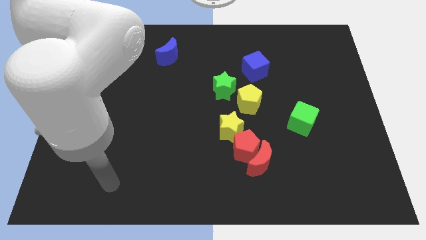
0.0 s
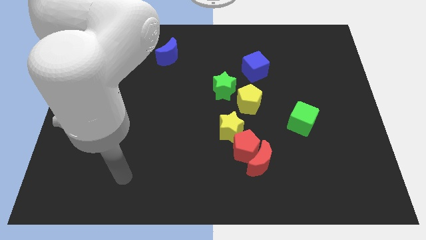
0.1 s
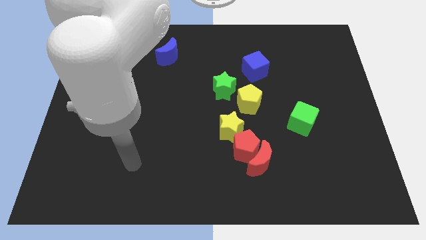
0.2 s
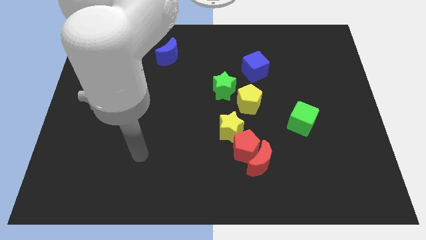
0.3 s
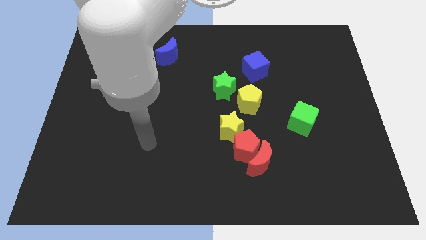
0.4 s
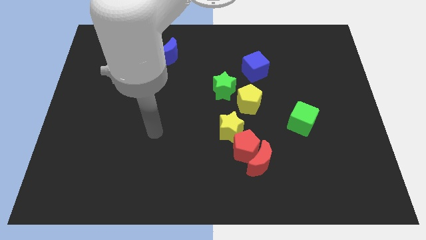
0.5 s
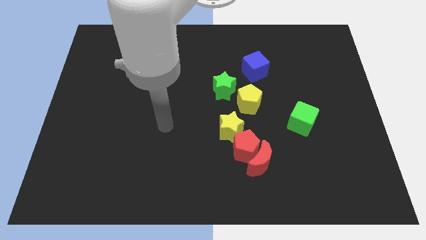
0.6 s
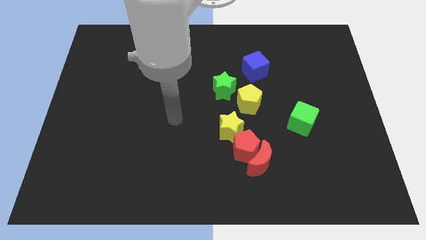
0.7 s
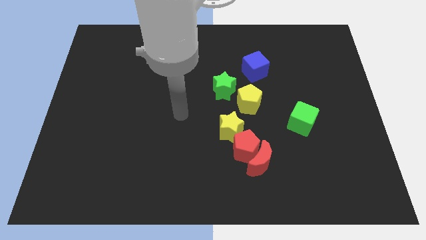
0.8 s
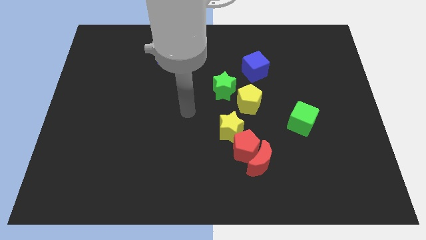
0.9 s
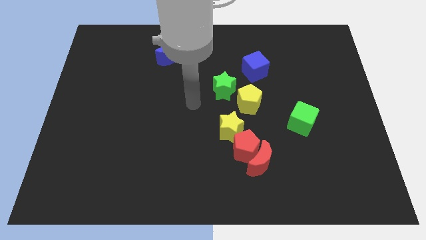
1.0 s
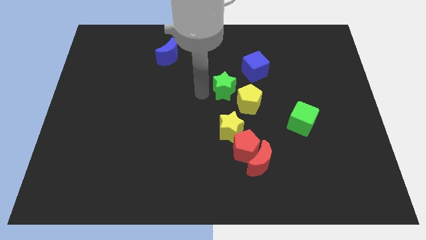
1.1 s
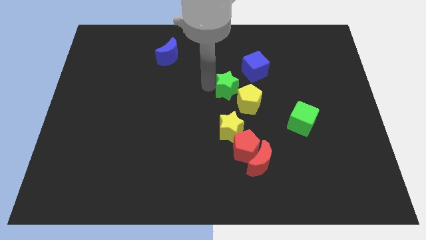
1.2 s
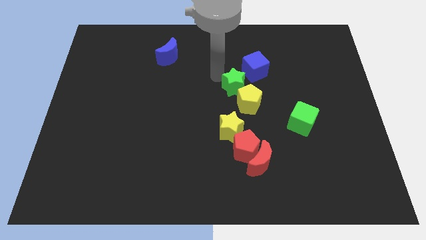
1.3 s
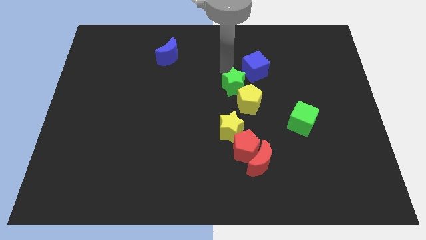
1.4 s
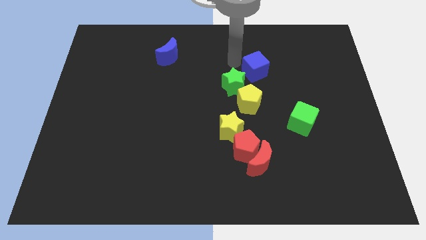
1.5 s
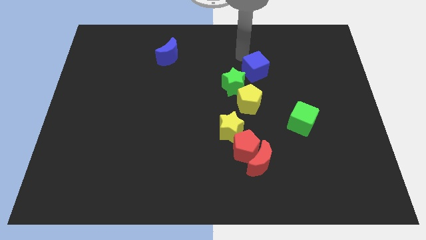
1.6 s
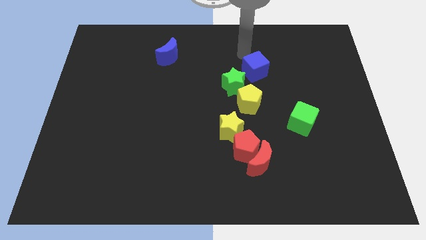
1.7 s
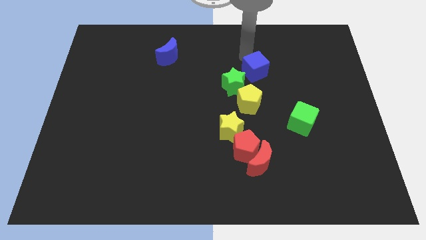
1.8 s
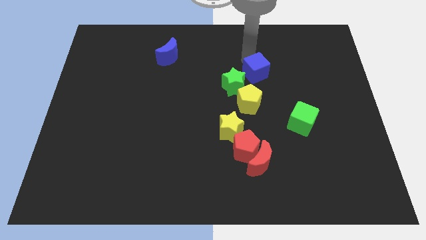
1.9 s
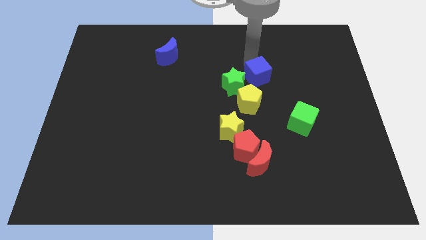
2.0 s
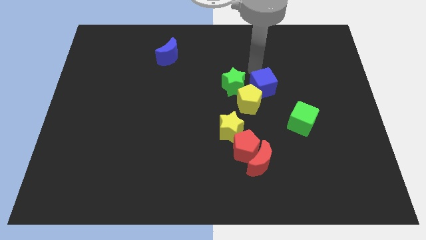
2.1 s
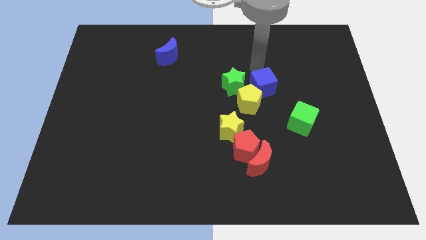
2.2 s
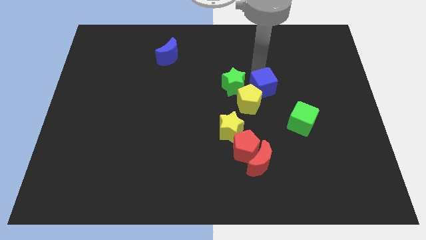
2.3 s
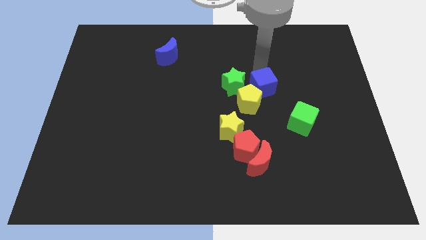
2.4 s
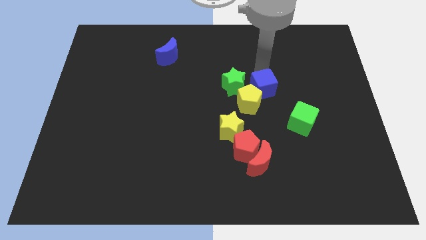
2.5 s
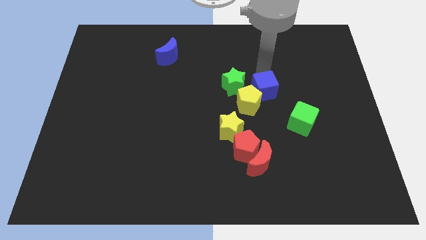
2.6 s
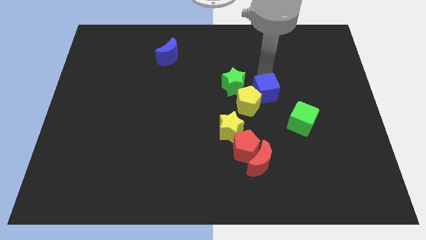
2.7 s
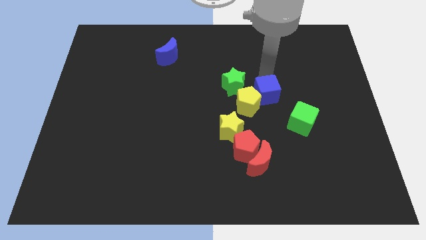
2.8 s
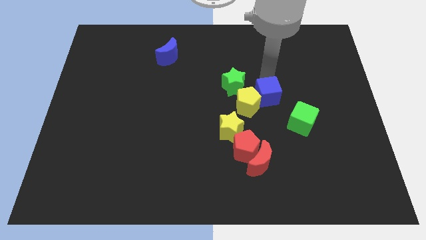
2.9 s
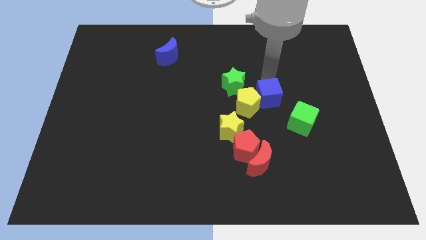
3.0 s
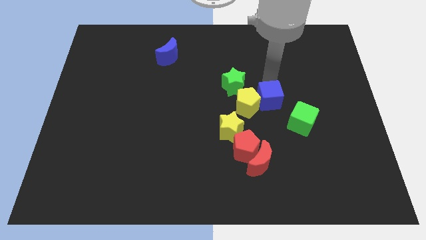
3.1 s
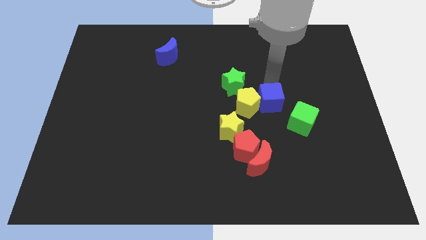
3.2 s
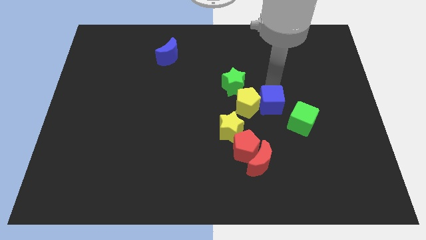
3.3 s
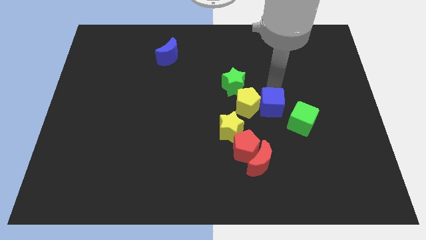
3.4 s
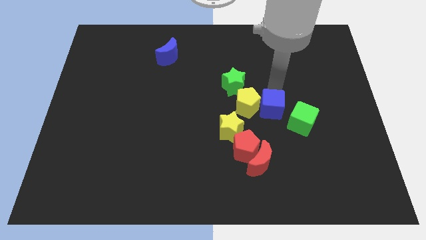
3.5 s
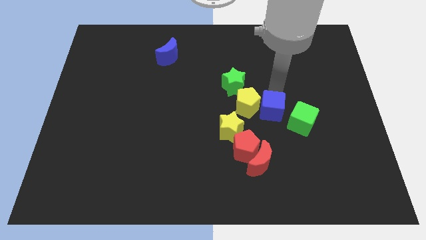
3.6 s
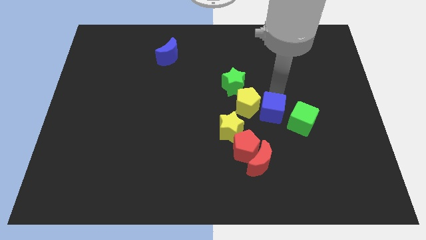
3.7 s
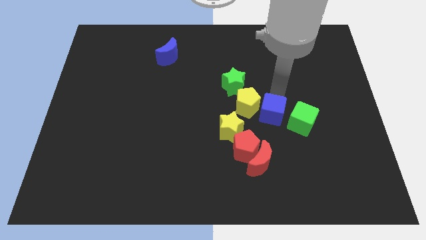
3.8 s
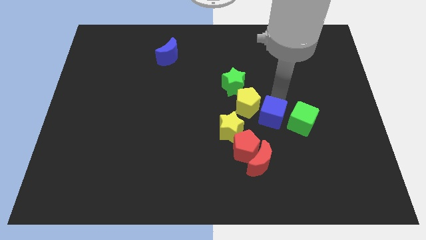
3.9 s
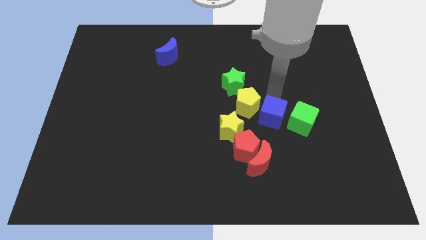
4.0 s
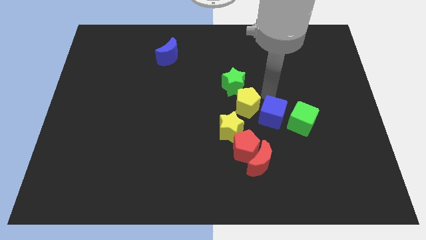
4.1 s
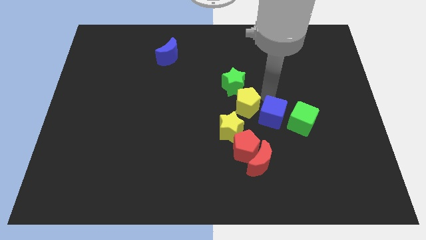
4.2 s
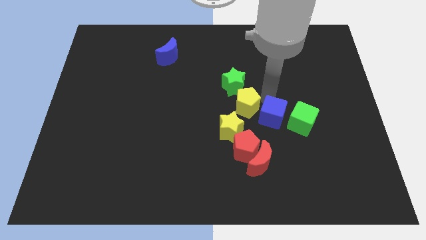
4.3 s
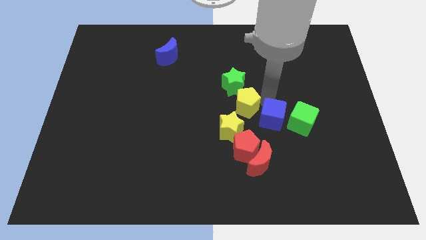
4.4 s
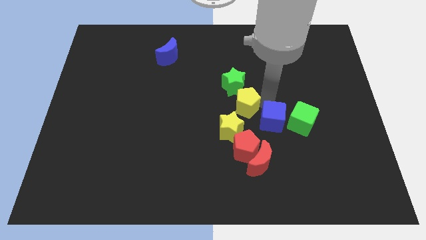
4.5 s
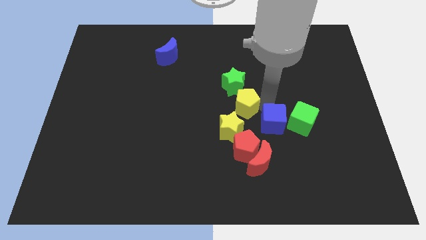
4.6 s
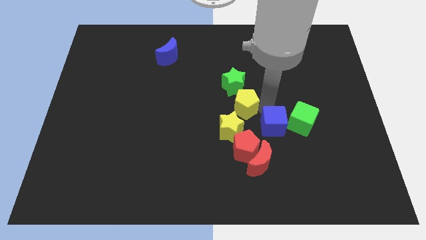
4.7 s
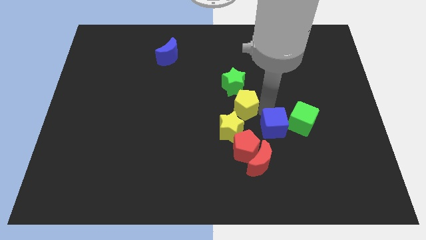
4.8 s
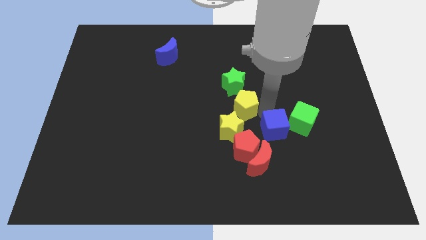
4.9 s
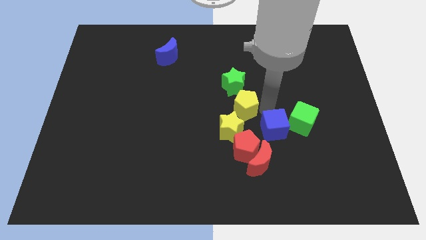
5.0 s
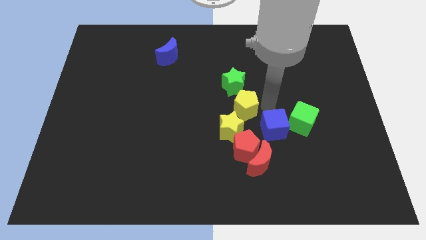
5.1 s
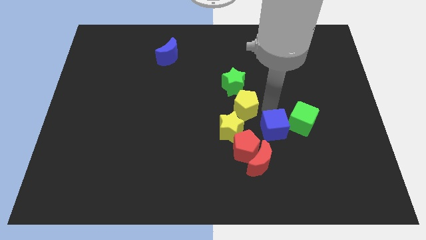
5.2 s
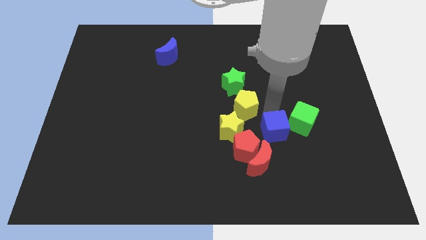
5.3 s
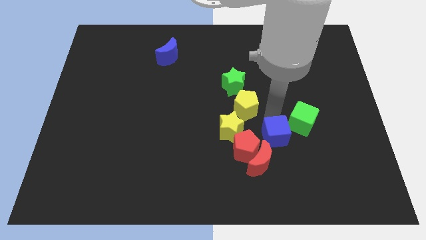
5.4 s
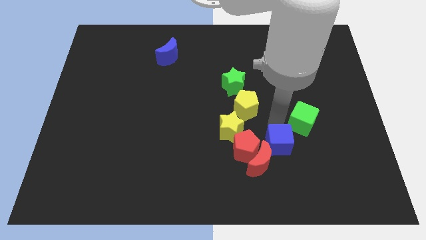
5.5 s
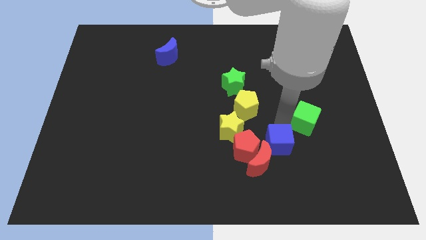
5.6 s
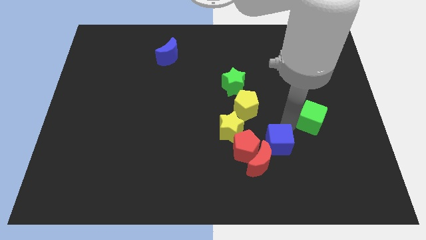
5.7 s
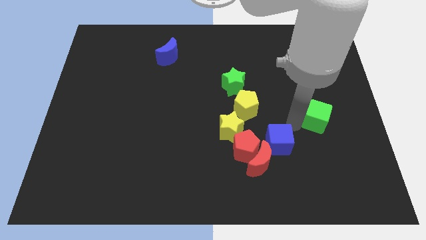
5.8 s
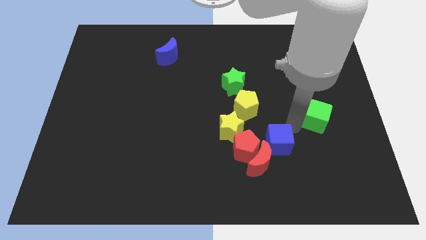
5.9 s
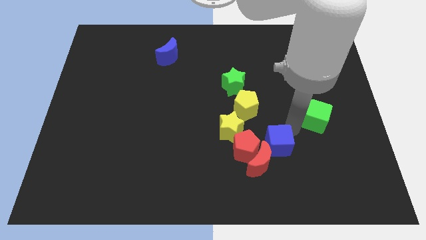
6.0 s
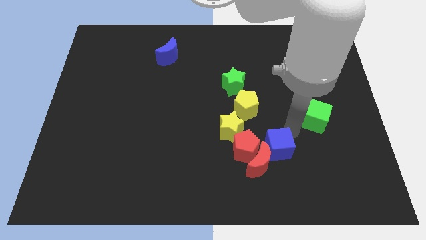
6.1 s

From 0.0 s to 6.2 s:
push the blue cube close to the red moon

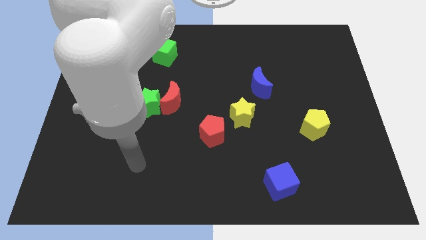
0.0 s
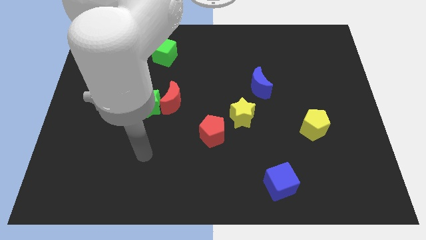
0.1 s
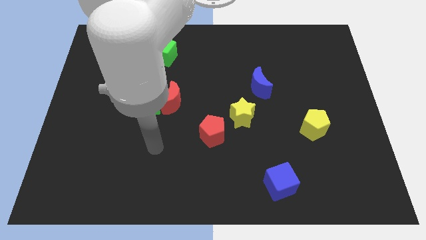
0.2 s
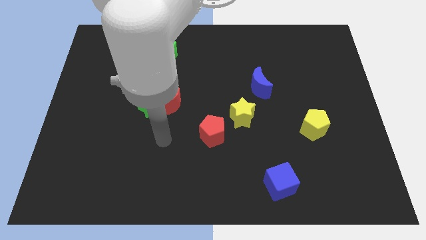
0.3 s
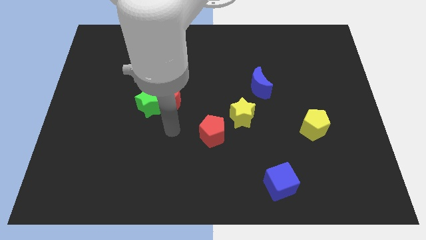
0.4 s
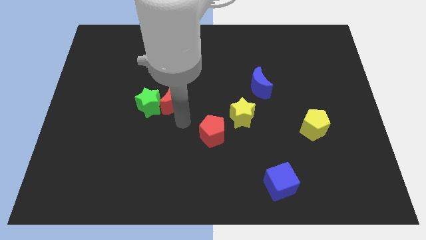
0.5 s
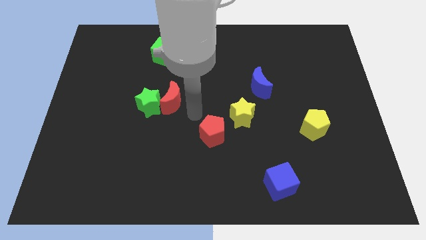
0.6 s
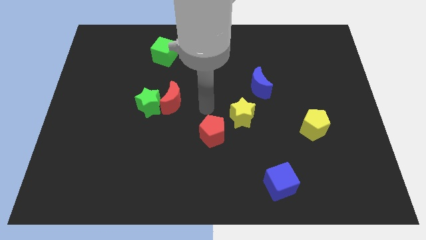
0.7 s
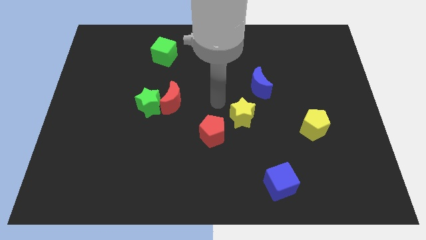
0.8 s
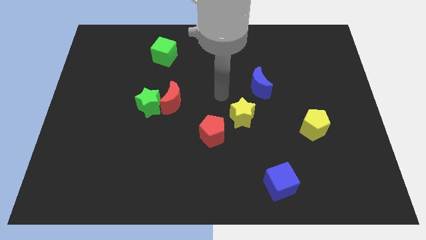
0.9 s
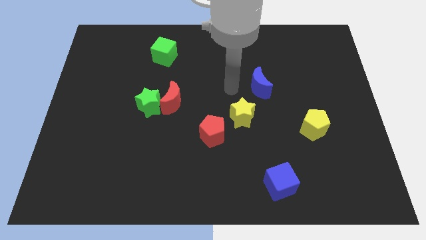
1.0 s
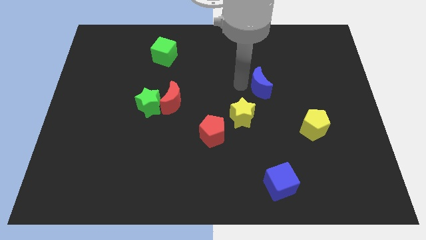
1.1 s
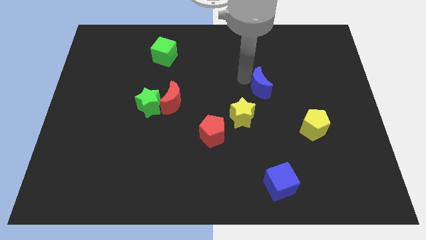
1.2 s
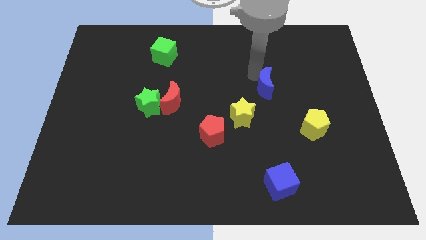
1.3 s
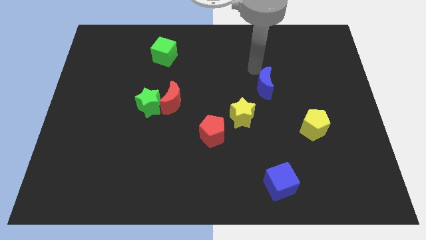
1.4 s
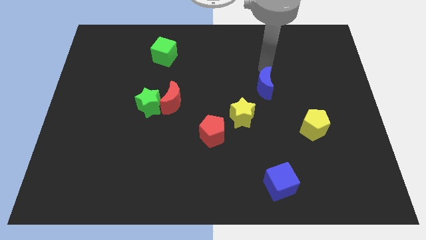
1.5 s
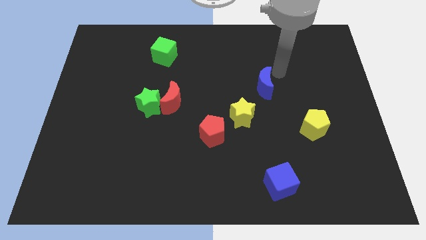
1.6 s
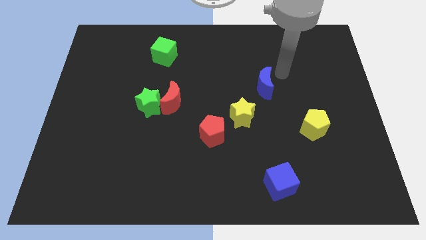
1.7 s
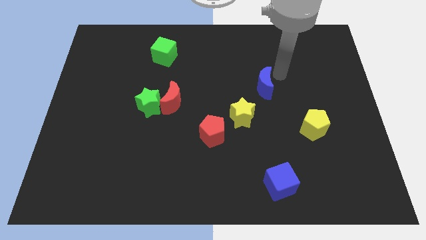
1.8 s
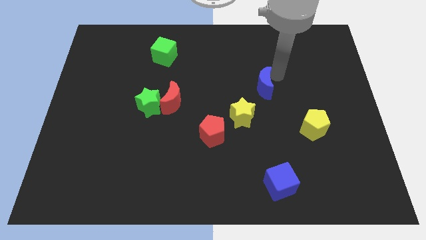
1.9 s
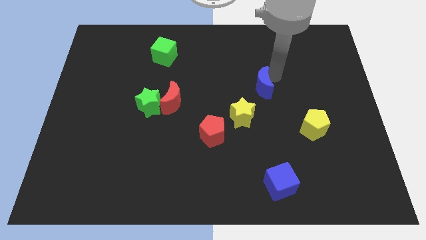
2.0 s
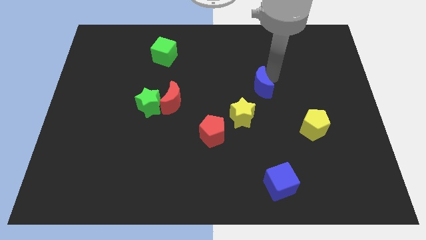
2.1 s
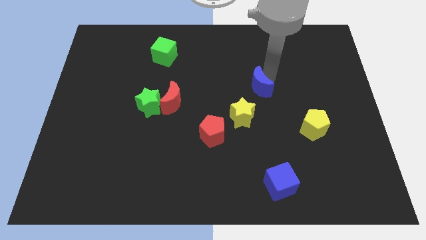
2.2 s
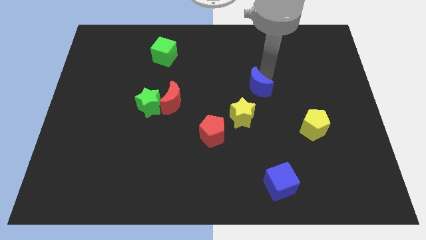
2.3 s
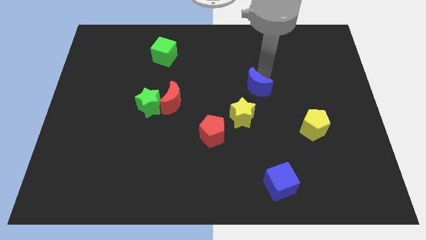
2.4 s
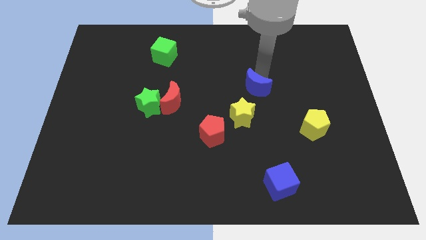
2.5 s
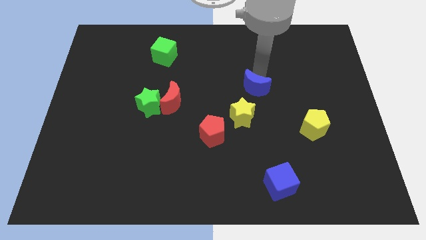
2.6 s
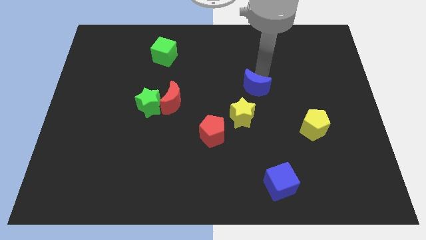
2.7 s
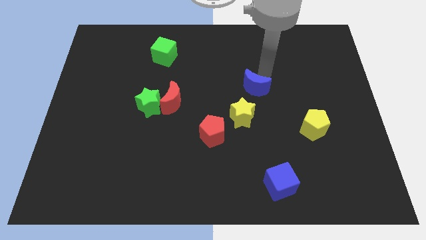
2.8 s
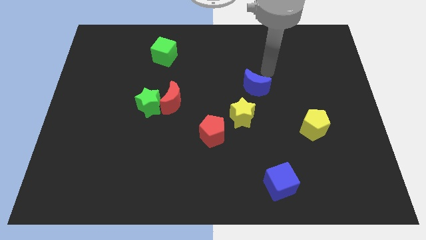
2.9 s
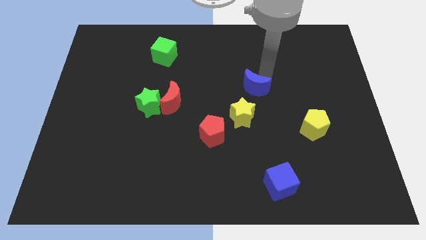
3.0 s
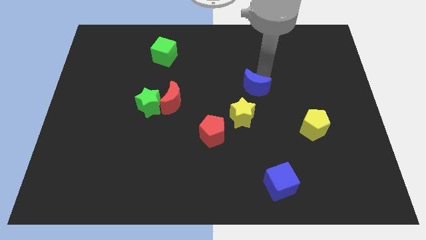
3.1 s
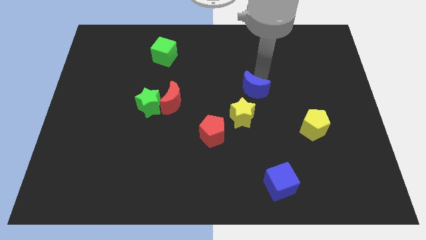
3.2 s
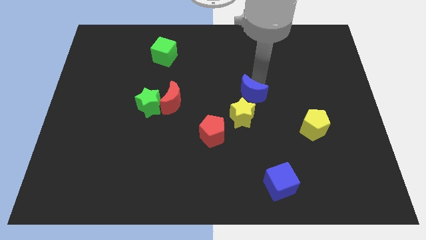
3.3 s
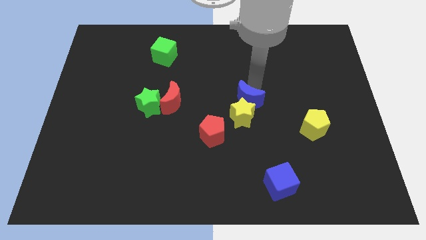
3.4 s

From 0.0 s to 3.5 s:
put the blue moon to the yellow star
